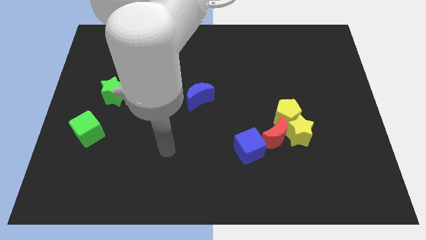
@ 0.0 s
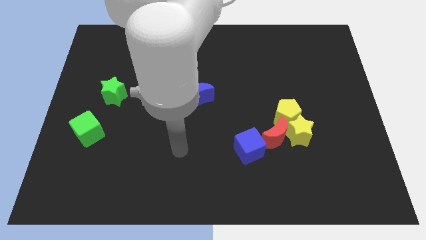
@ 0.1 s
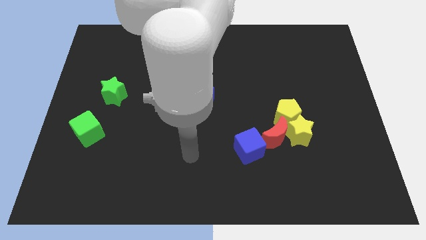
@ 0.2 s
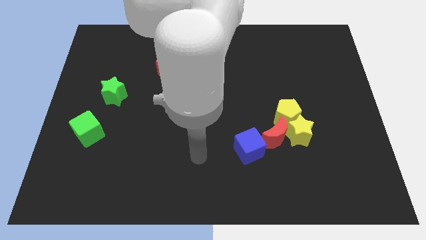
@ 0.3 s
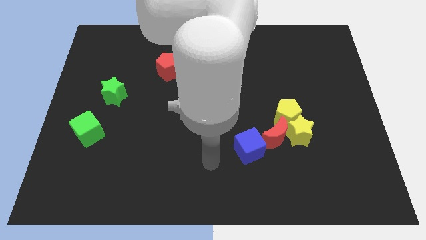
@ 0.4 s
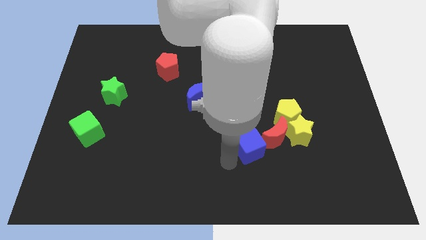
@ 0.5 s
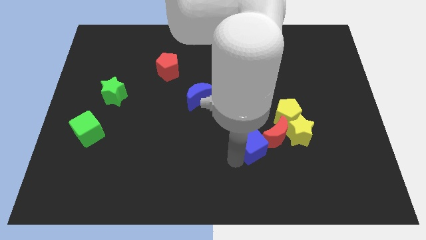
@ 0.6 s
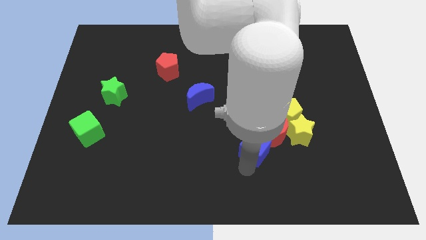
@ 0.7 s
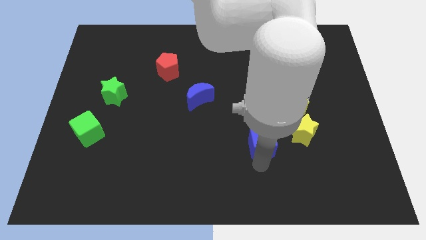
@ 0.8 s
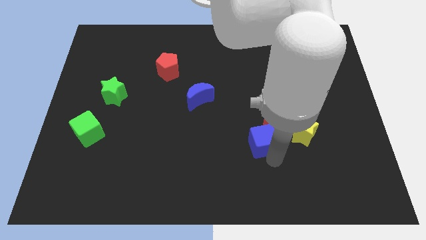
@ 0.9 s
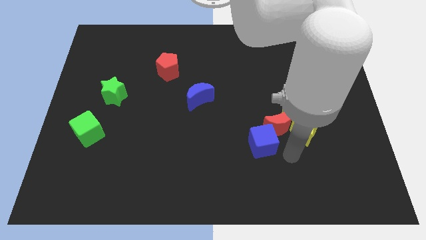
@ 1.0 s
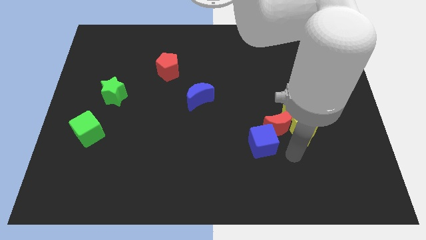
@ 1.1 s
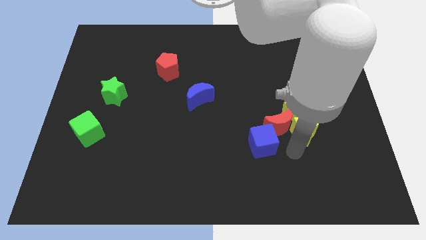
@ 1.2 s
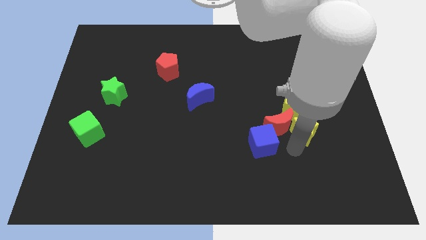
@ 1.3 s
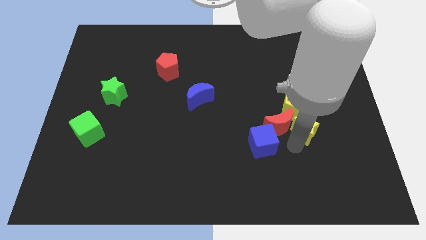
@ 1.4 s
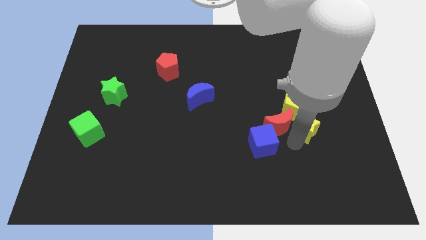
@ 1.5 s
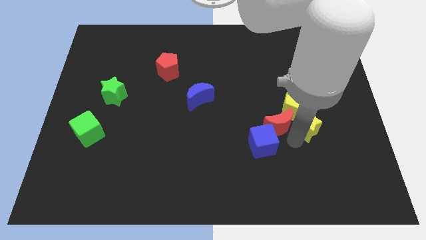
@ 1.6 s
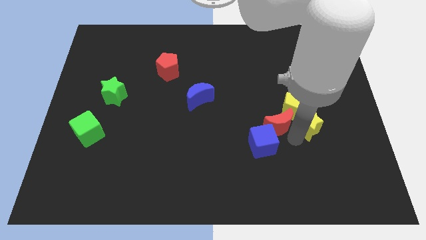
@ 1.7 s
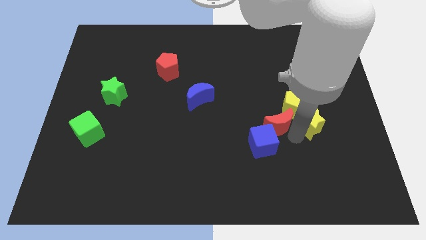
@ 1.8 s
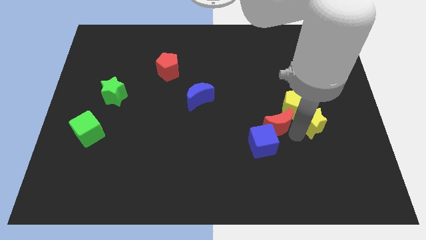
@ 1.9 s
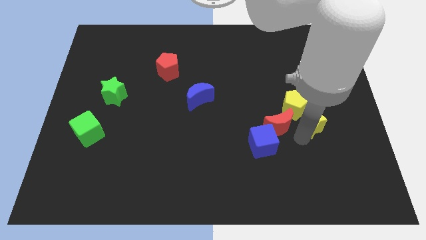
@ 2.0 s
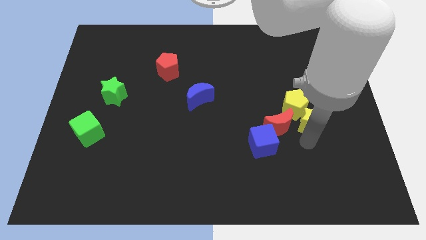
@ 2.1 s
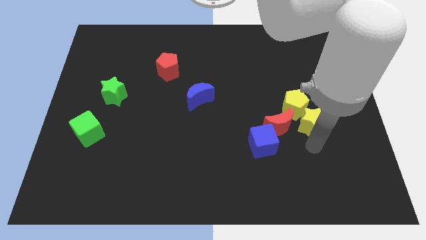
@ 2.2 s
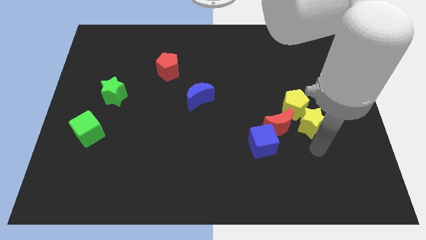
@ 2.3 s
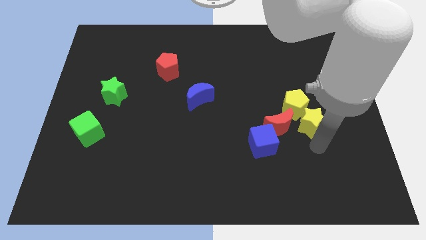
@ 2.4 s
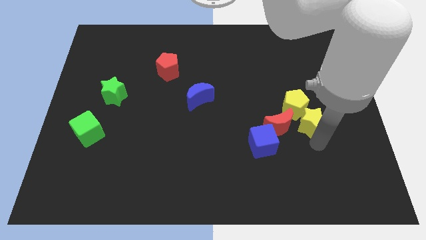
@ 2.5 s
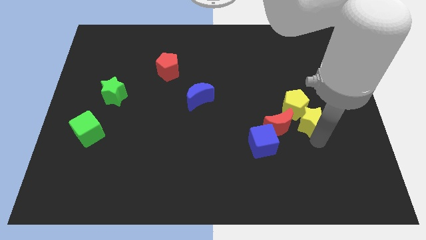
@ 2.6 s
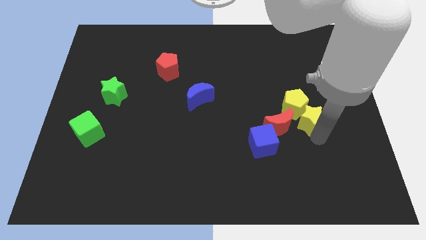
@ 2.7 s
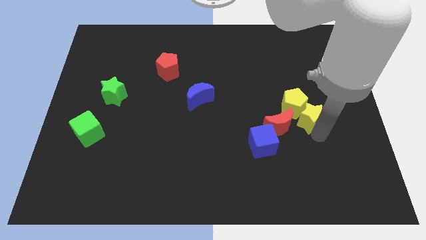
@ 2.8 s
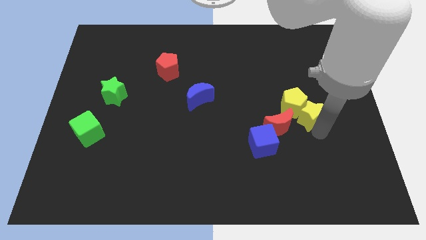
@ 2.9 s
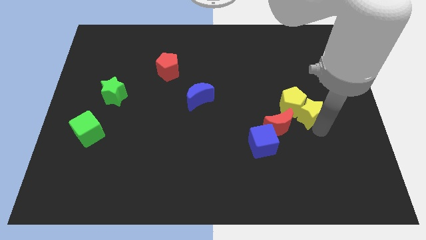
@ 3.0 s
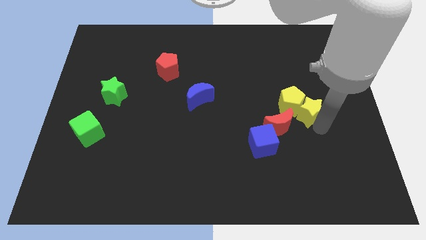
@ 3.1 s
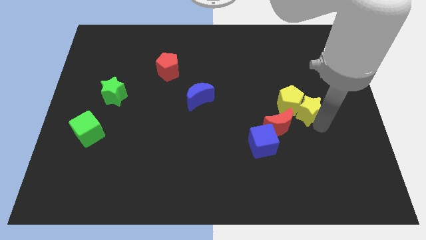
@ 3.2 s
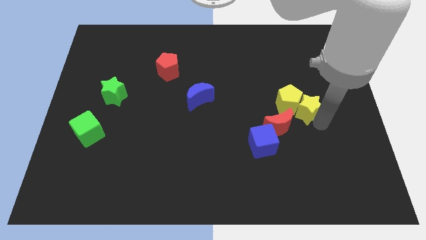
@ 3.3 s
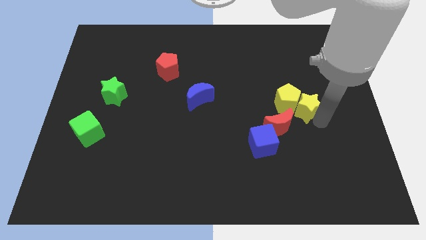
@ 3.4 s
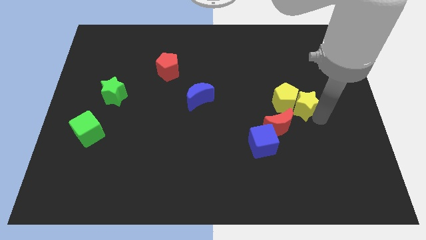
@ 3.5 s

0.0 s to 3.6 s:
slightly move the yellow star up

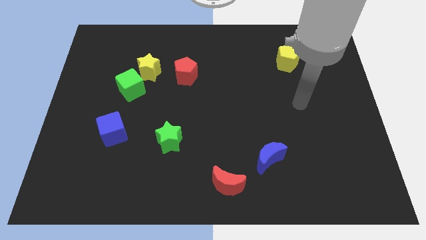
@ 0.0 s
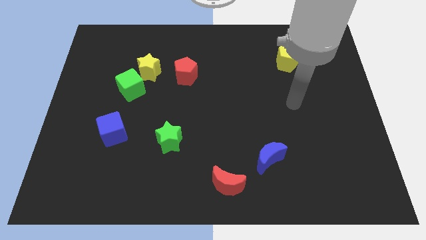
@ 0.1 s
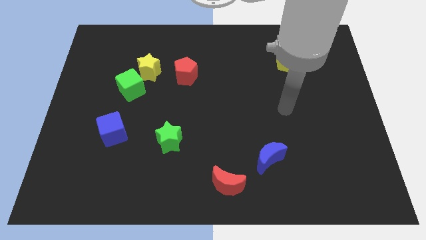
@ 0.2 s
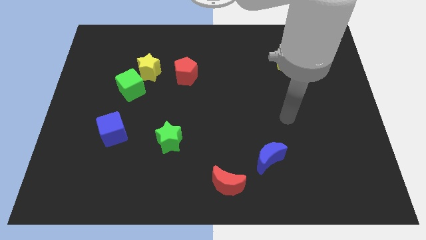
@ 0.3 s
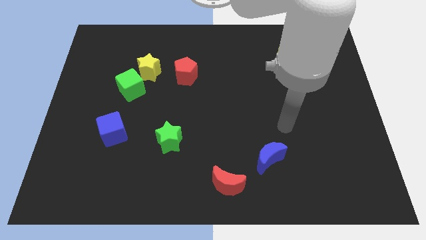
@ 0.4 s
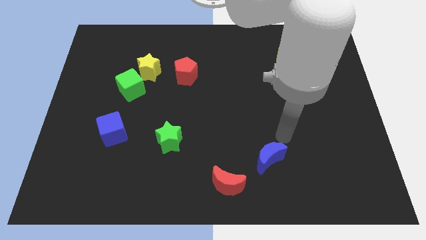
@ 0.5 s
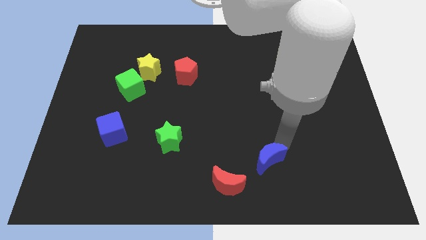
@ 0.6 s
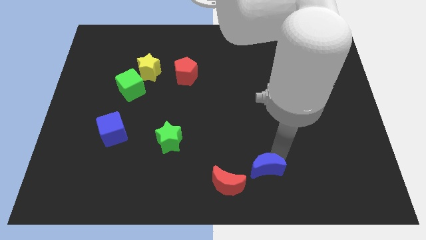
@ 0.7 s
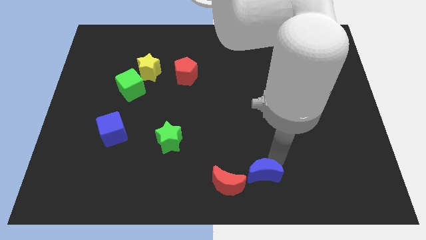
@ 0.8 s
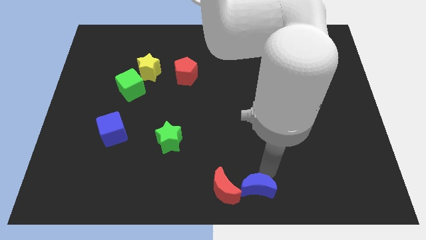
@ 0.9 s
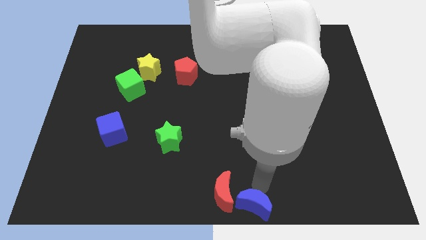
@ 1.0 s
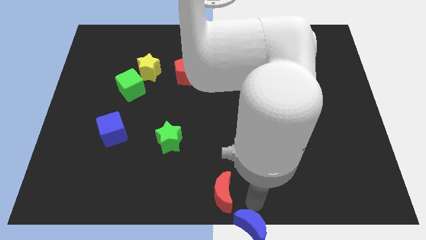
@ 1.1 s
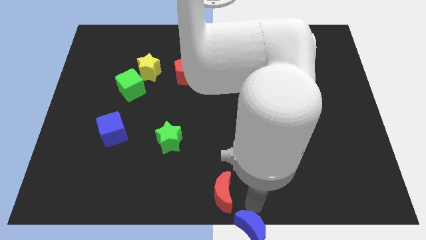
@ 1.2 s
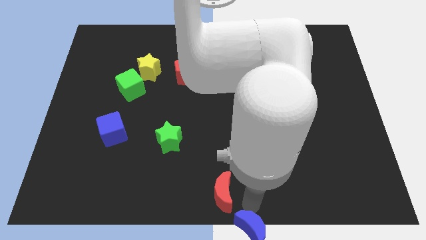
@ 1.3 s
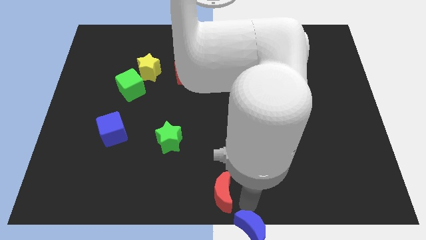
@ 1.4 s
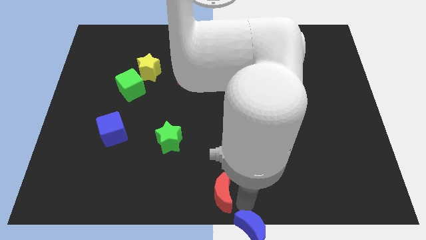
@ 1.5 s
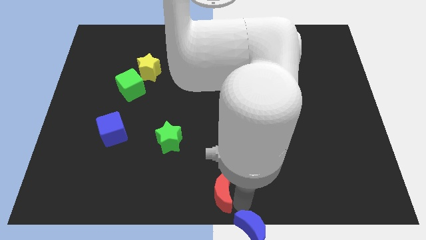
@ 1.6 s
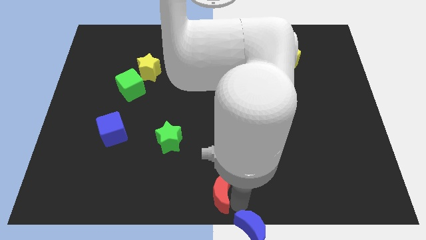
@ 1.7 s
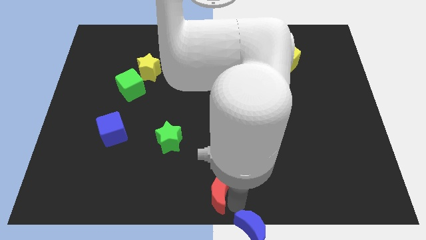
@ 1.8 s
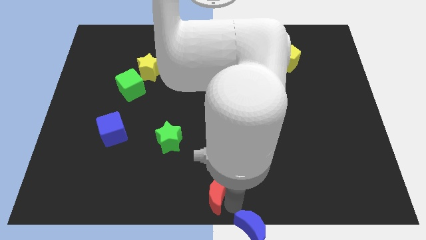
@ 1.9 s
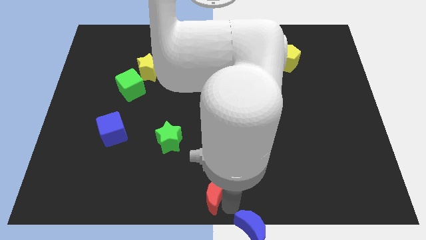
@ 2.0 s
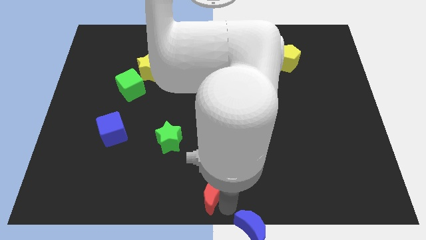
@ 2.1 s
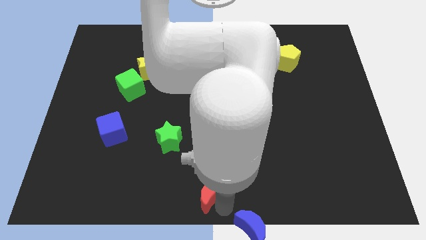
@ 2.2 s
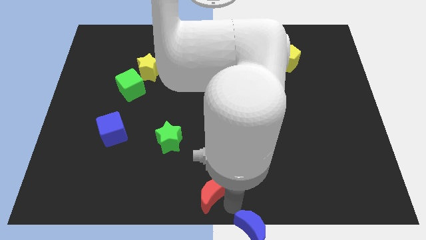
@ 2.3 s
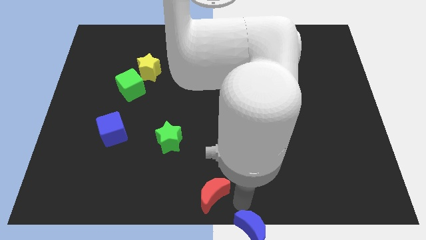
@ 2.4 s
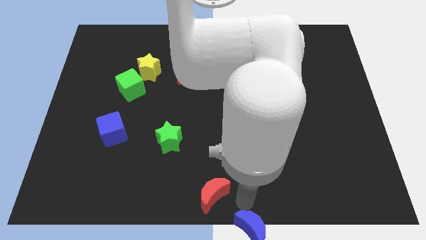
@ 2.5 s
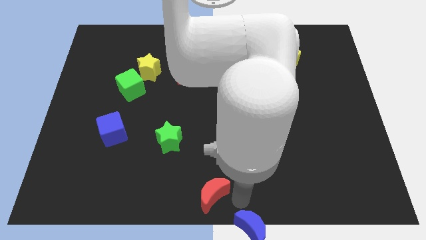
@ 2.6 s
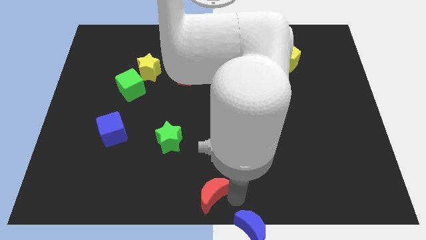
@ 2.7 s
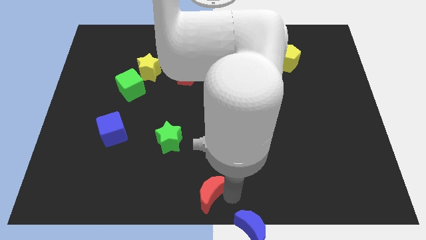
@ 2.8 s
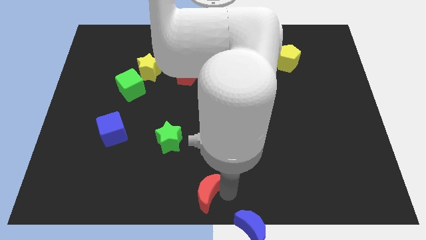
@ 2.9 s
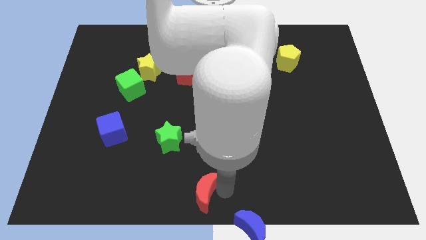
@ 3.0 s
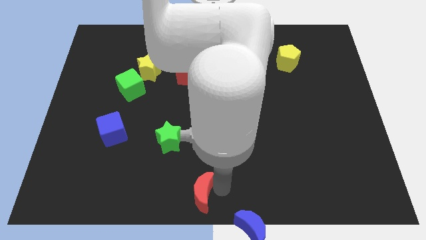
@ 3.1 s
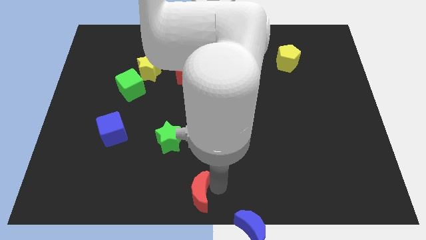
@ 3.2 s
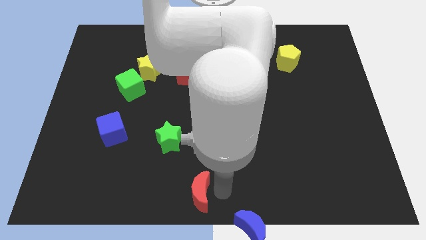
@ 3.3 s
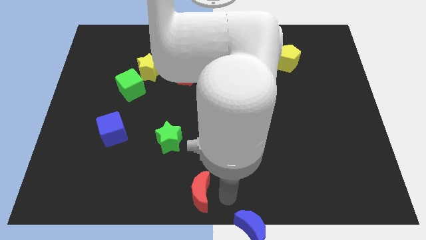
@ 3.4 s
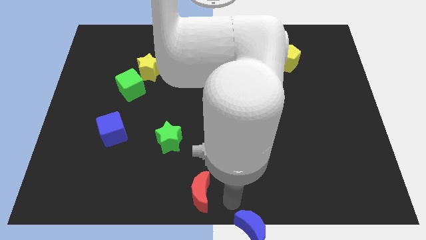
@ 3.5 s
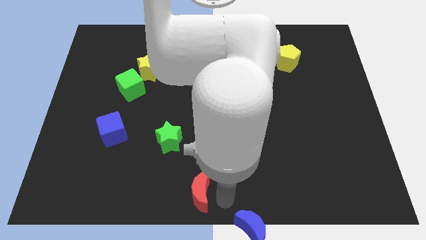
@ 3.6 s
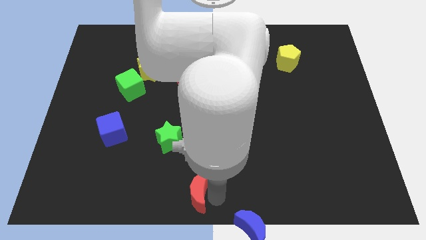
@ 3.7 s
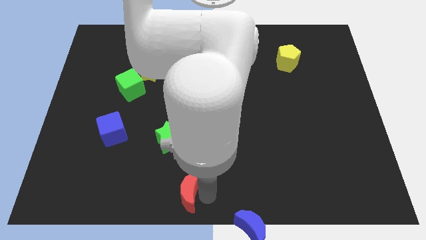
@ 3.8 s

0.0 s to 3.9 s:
slide the red moon a bit to the left

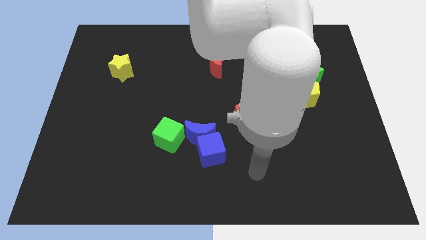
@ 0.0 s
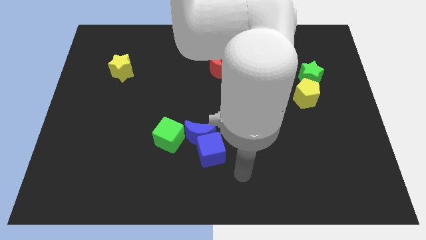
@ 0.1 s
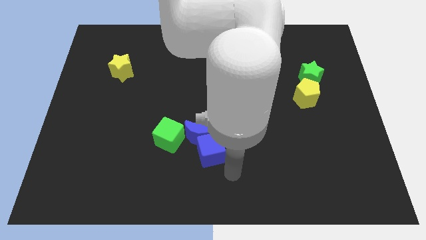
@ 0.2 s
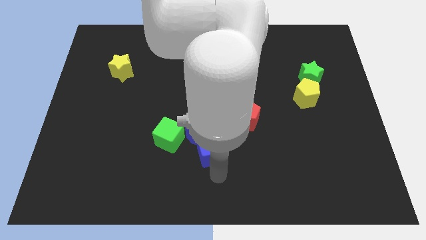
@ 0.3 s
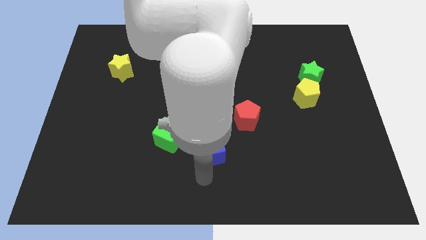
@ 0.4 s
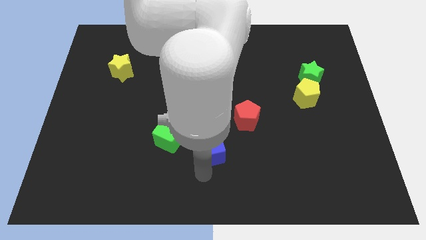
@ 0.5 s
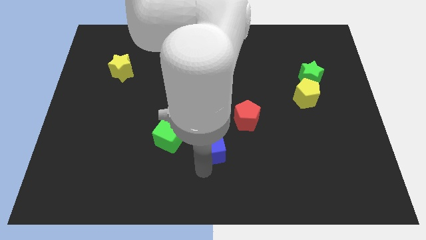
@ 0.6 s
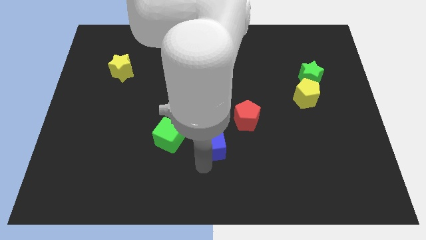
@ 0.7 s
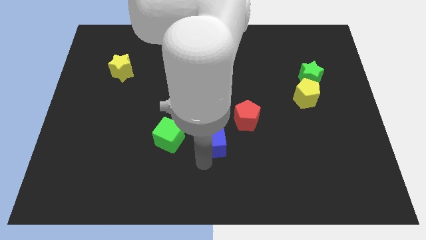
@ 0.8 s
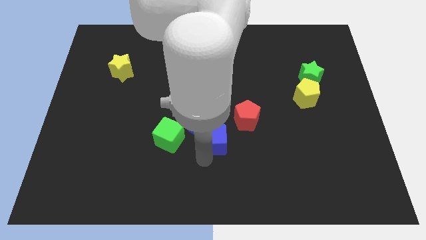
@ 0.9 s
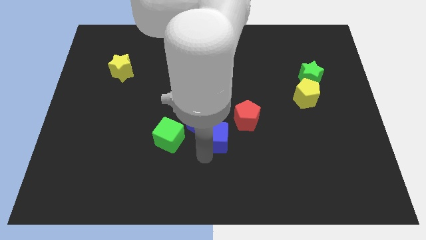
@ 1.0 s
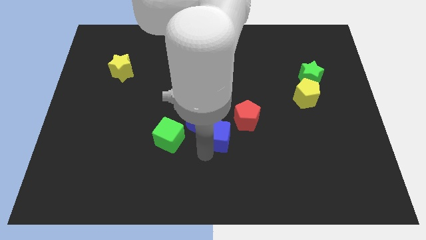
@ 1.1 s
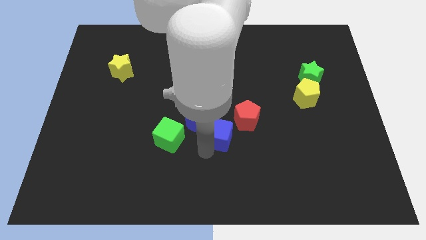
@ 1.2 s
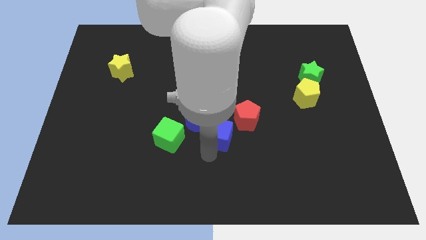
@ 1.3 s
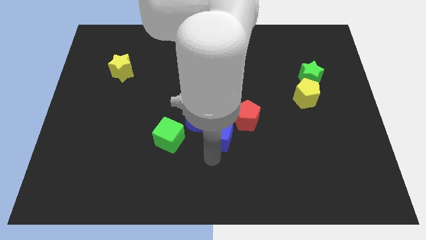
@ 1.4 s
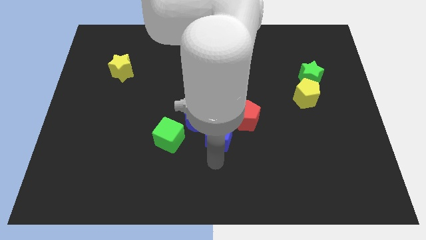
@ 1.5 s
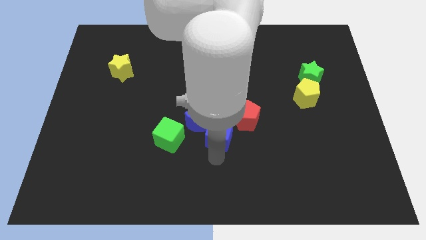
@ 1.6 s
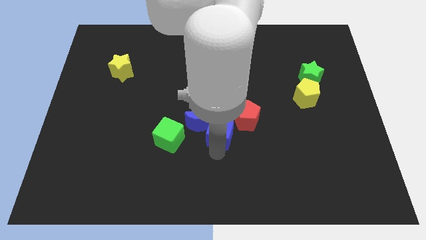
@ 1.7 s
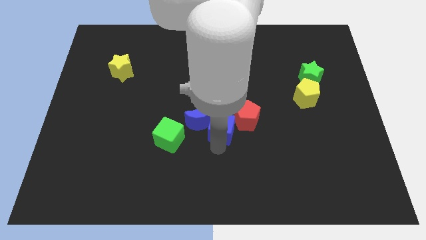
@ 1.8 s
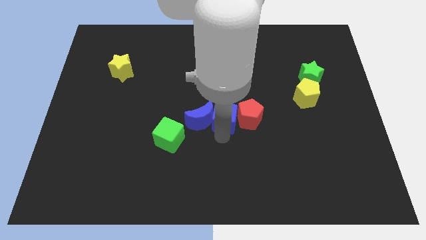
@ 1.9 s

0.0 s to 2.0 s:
slightly push the blue cube upwards
